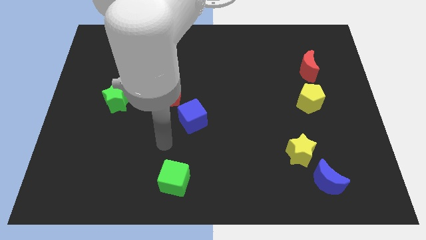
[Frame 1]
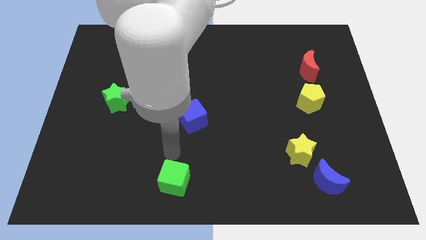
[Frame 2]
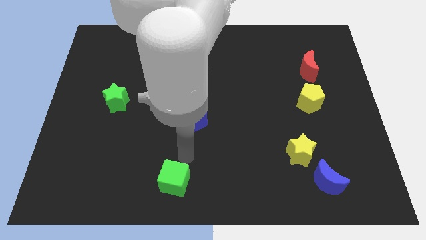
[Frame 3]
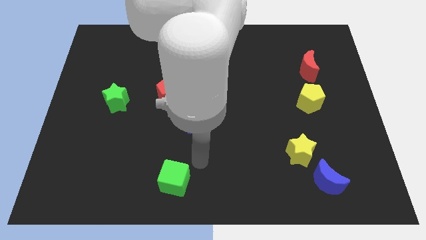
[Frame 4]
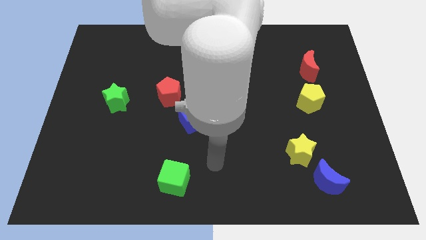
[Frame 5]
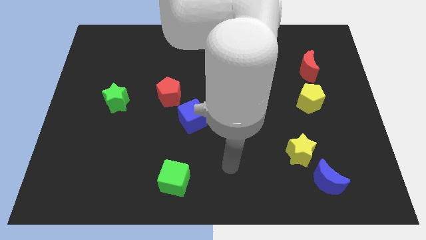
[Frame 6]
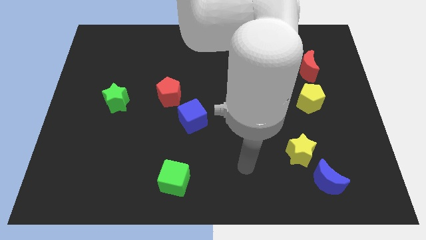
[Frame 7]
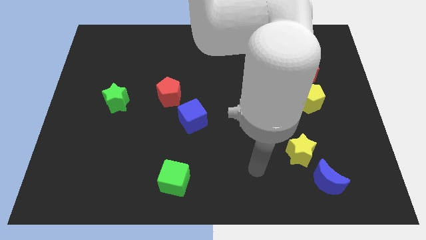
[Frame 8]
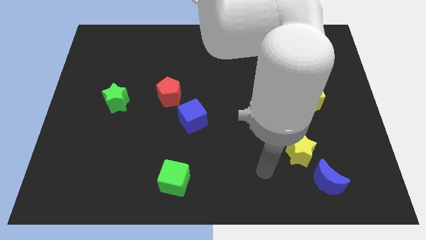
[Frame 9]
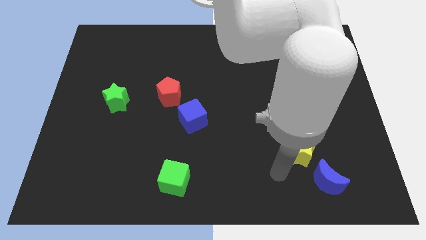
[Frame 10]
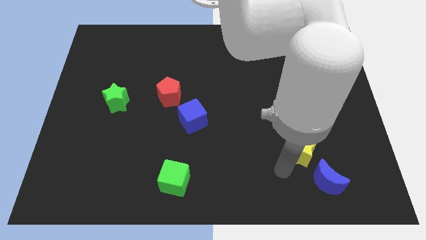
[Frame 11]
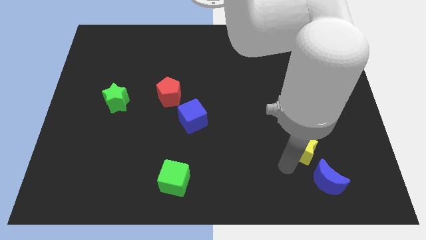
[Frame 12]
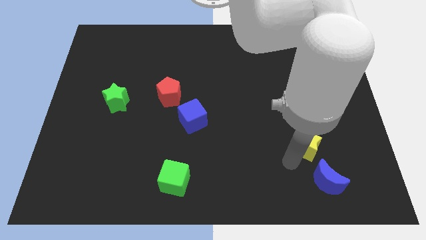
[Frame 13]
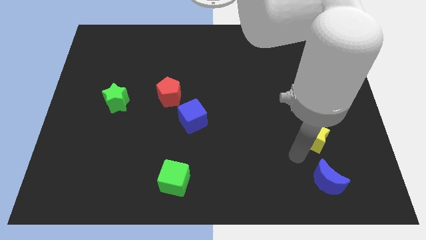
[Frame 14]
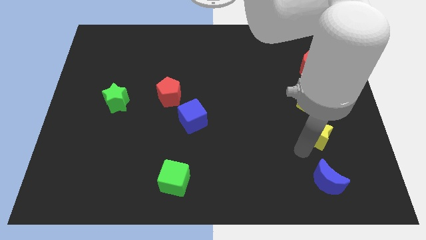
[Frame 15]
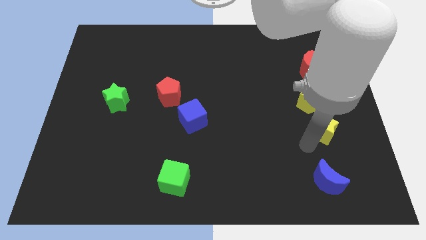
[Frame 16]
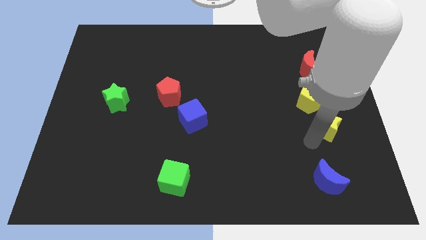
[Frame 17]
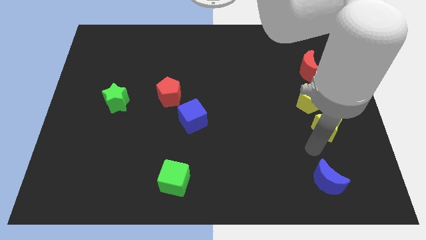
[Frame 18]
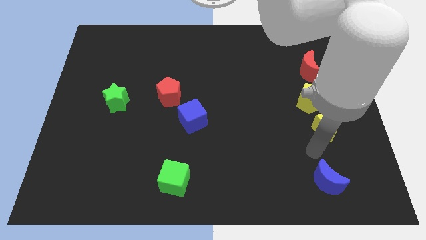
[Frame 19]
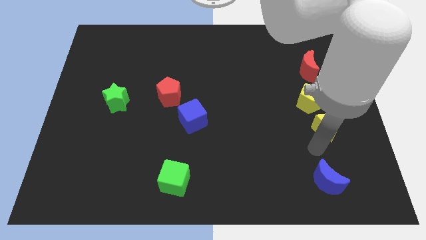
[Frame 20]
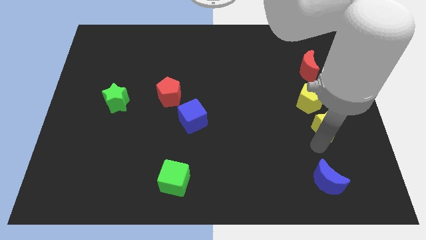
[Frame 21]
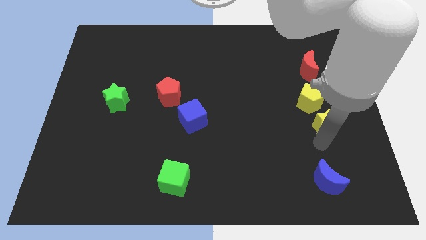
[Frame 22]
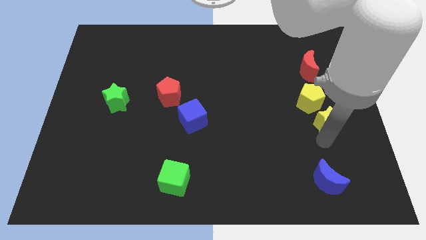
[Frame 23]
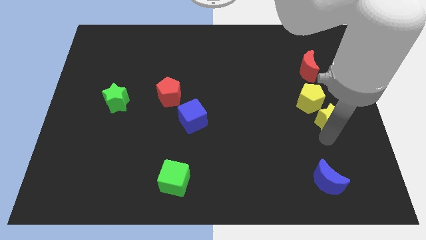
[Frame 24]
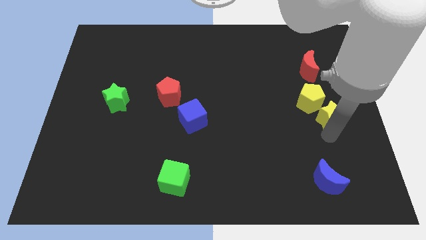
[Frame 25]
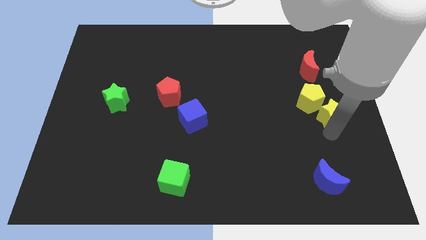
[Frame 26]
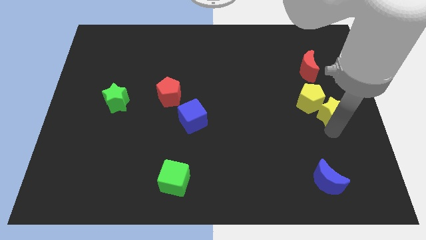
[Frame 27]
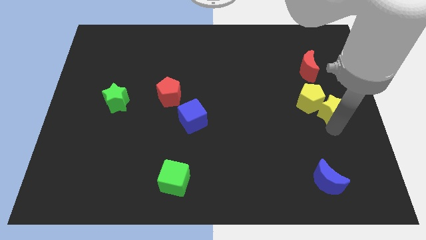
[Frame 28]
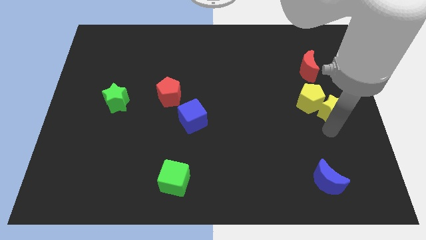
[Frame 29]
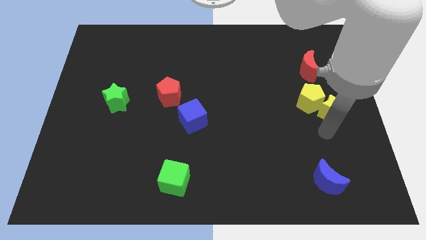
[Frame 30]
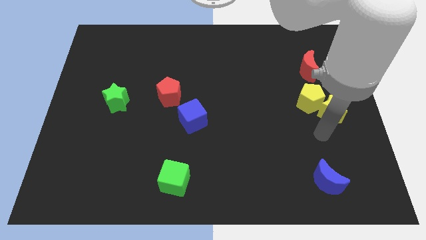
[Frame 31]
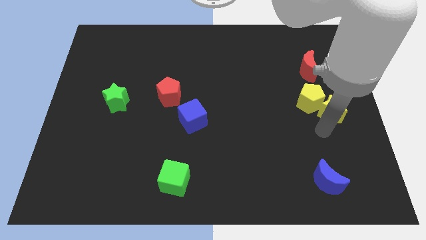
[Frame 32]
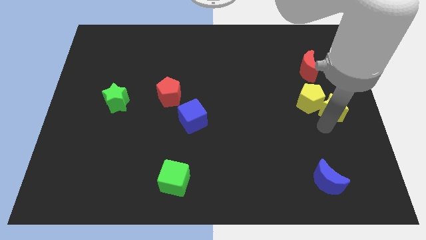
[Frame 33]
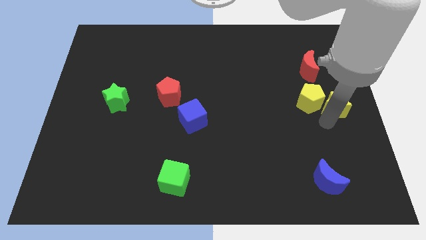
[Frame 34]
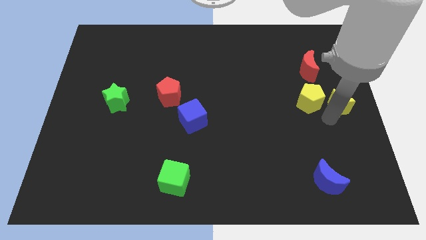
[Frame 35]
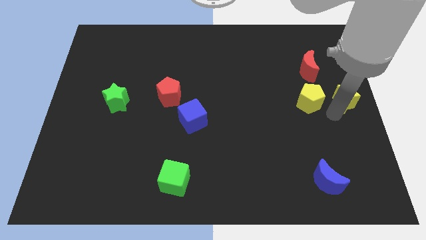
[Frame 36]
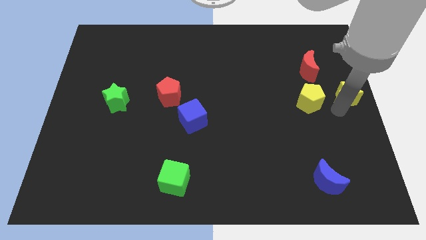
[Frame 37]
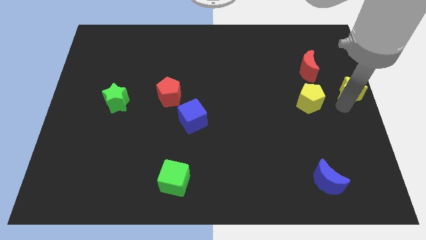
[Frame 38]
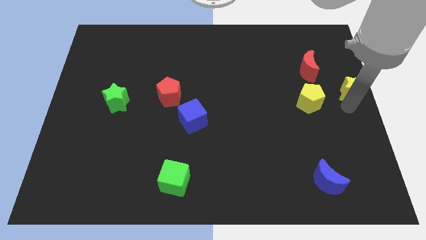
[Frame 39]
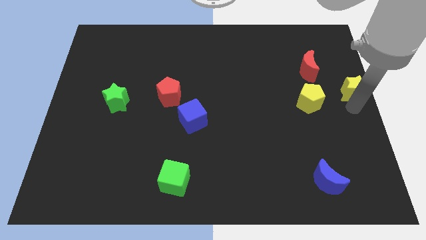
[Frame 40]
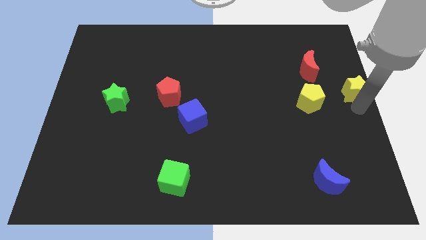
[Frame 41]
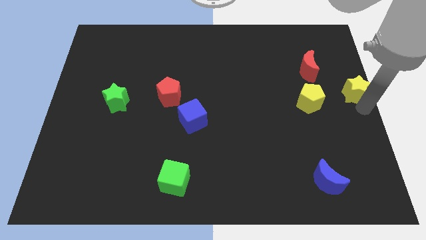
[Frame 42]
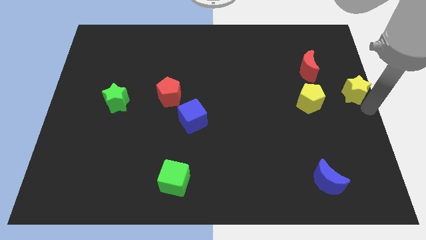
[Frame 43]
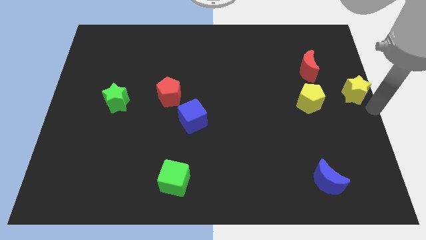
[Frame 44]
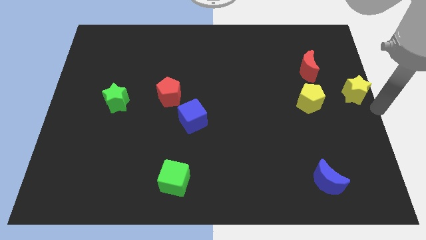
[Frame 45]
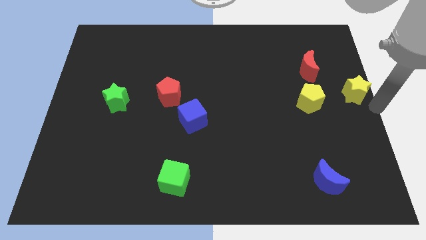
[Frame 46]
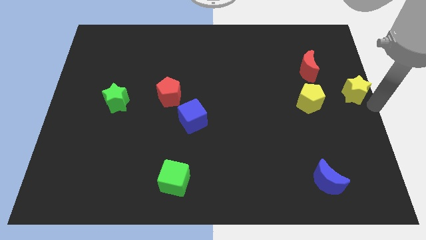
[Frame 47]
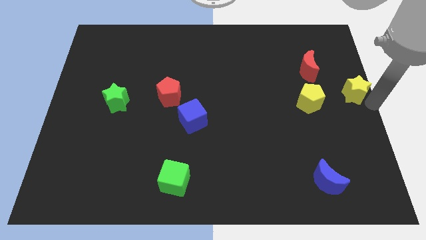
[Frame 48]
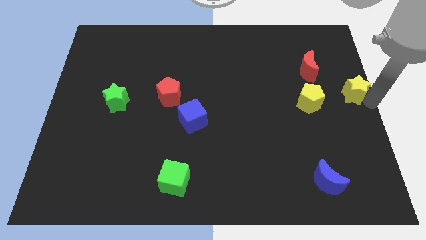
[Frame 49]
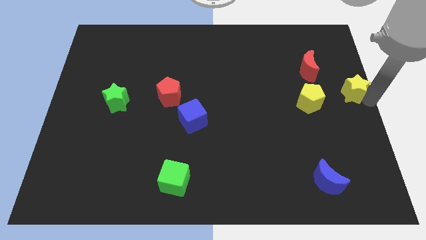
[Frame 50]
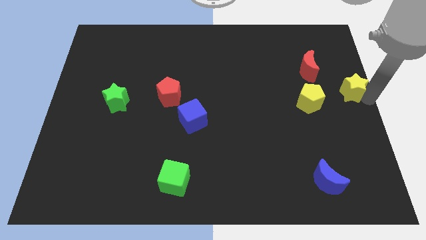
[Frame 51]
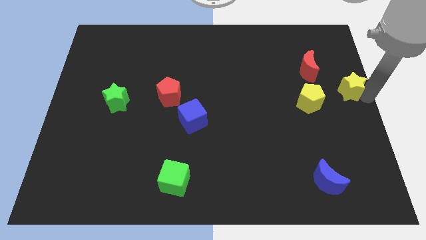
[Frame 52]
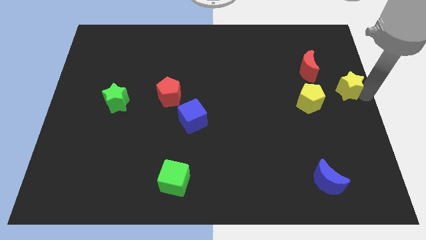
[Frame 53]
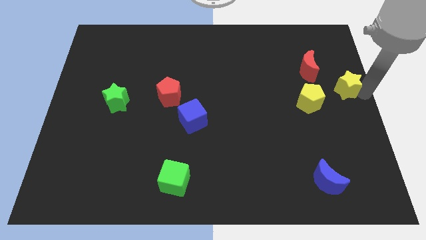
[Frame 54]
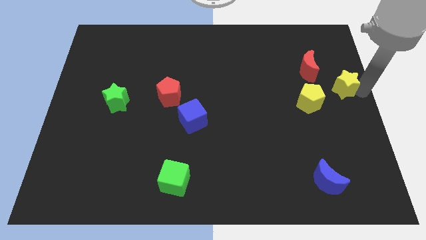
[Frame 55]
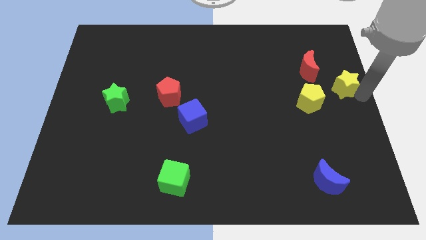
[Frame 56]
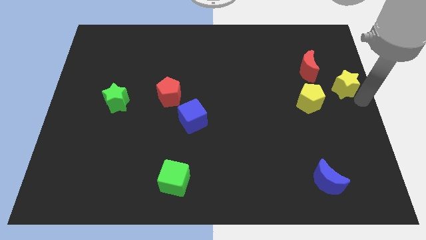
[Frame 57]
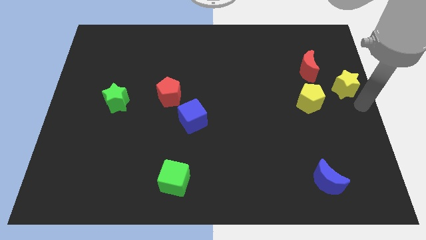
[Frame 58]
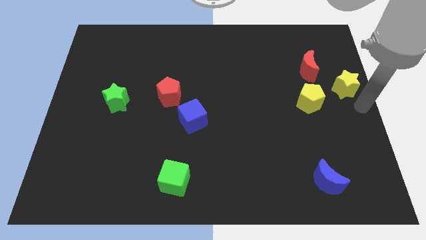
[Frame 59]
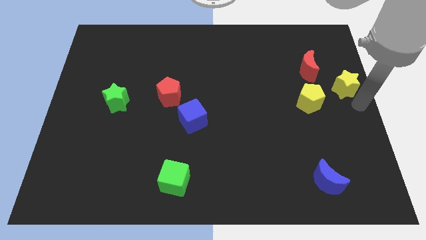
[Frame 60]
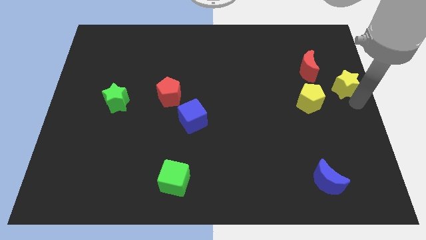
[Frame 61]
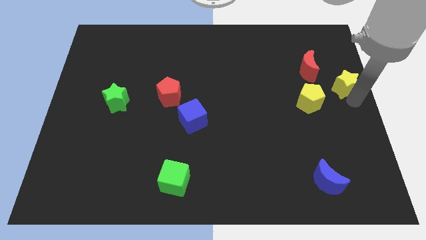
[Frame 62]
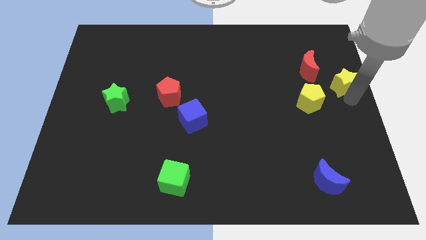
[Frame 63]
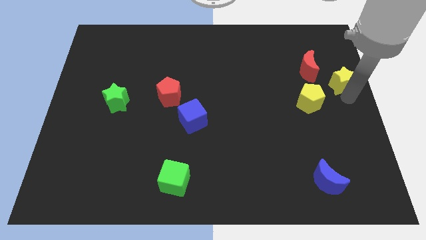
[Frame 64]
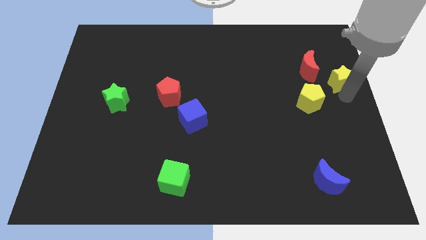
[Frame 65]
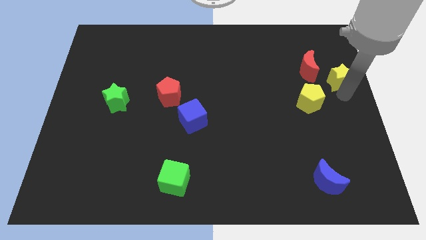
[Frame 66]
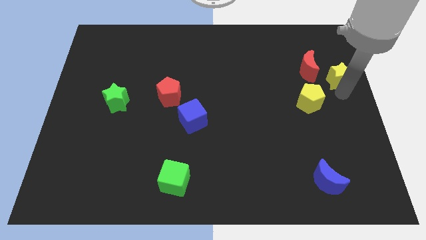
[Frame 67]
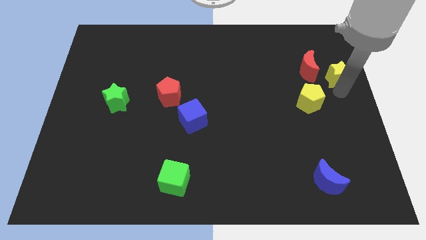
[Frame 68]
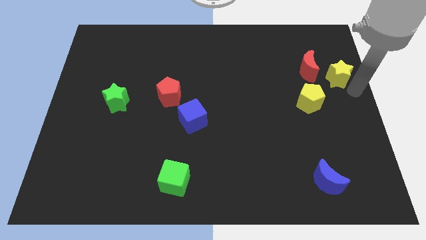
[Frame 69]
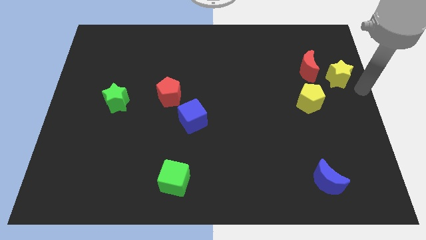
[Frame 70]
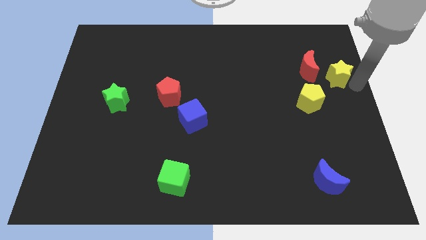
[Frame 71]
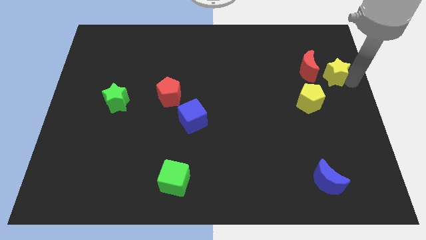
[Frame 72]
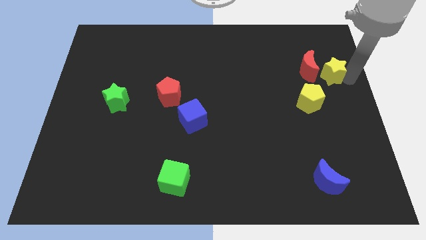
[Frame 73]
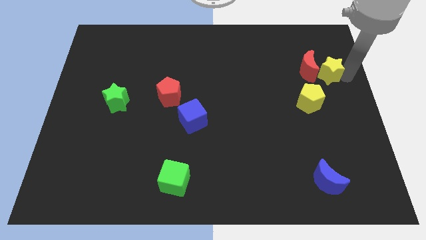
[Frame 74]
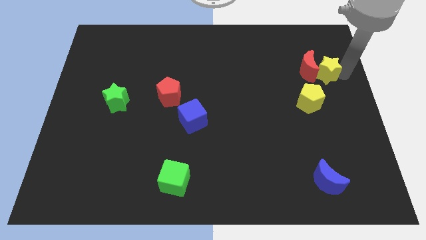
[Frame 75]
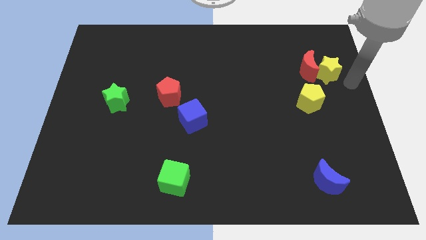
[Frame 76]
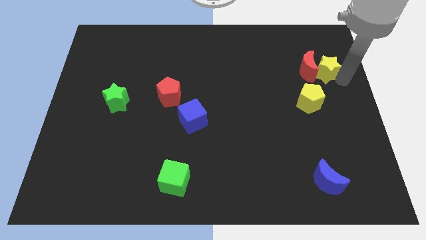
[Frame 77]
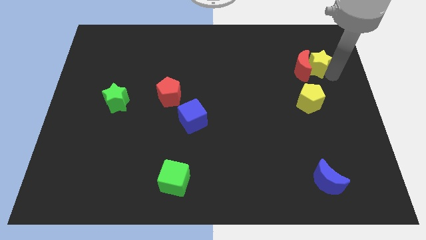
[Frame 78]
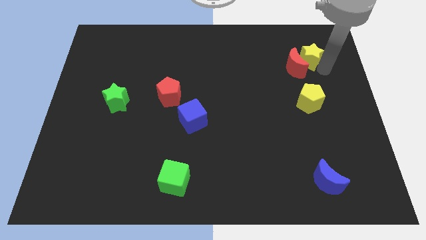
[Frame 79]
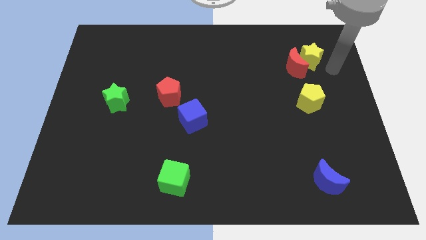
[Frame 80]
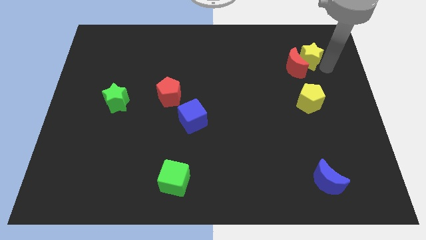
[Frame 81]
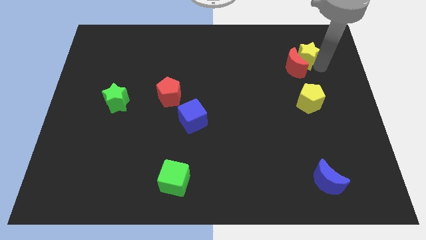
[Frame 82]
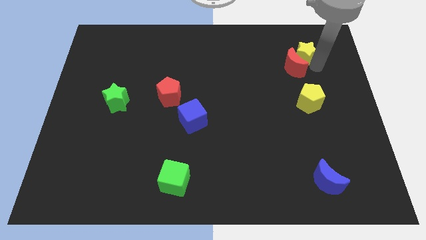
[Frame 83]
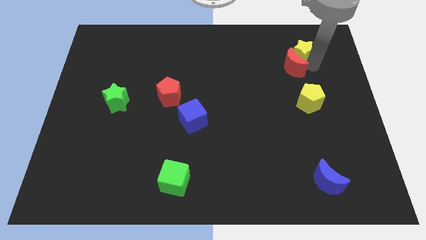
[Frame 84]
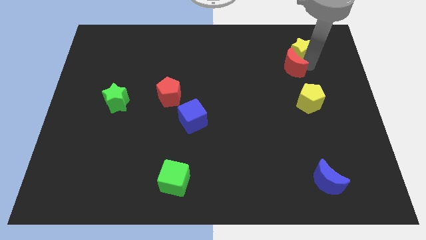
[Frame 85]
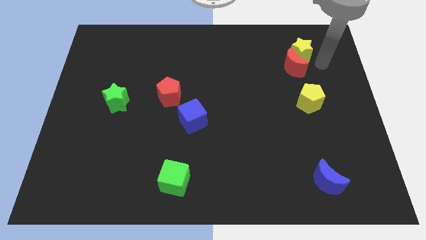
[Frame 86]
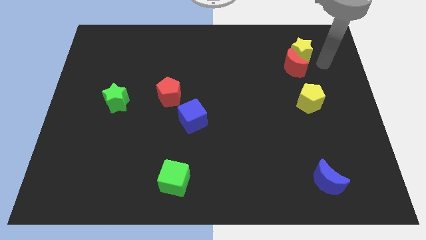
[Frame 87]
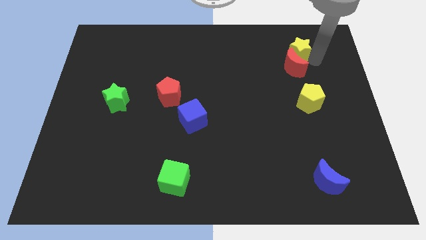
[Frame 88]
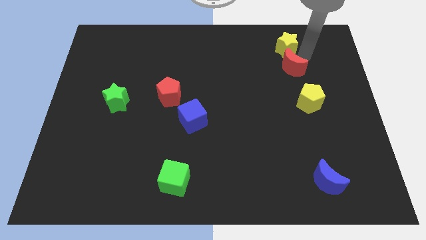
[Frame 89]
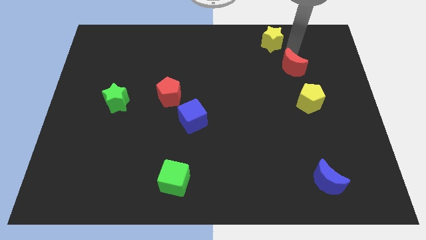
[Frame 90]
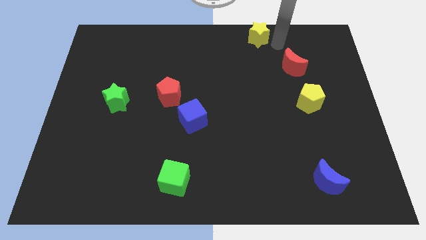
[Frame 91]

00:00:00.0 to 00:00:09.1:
move the yellow star to the top side
